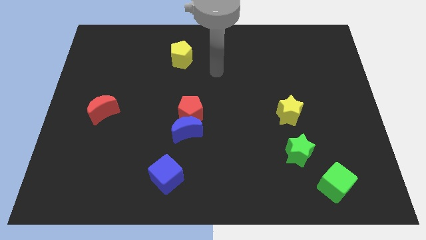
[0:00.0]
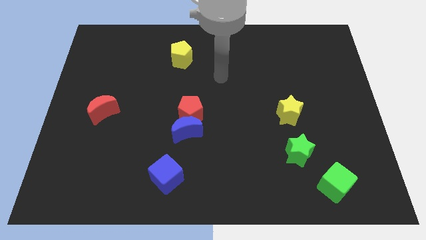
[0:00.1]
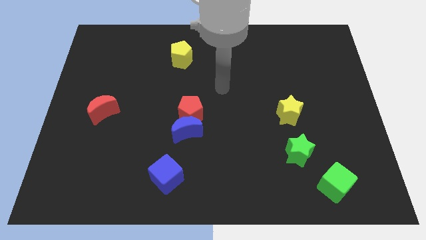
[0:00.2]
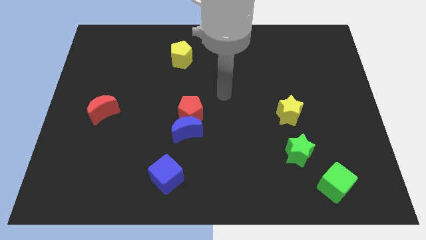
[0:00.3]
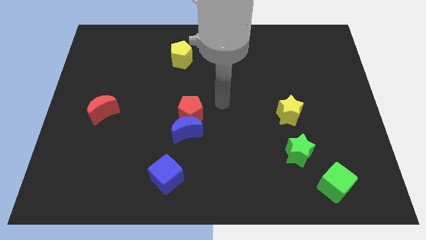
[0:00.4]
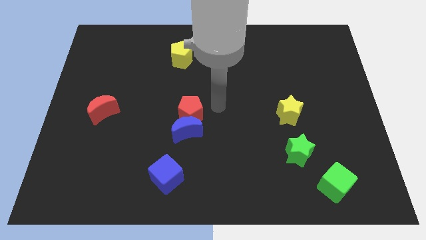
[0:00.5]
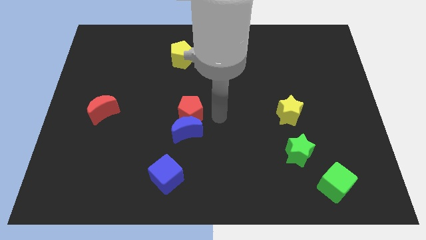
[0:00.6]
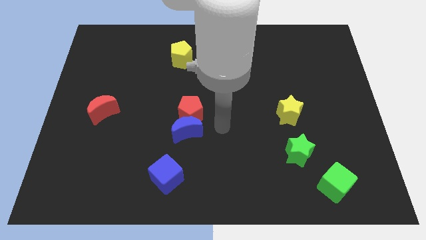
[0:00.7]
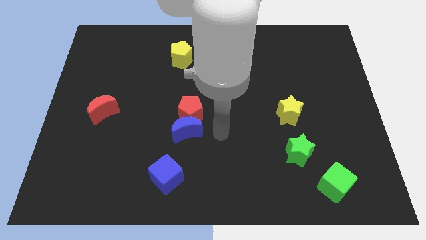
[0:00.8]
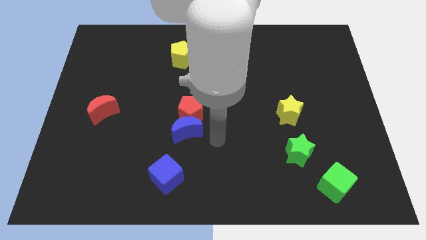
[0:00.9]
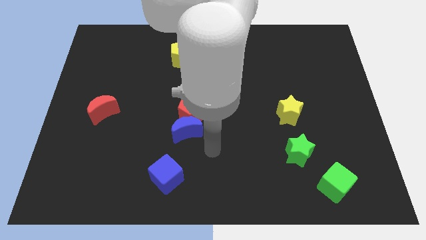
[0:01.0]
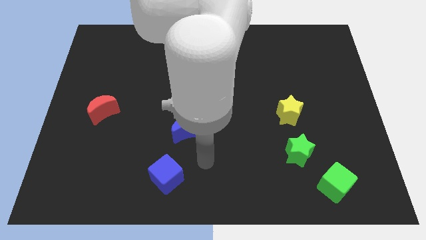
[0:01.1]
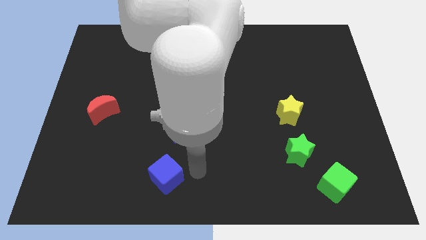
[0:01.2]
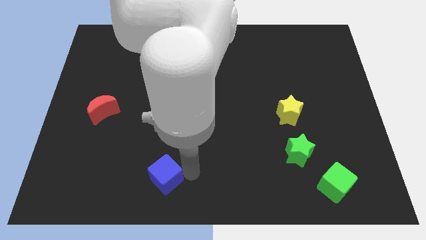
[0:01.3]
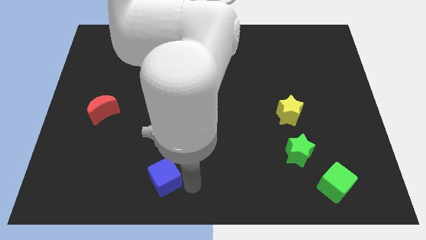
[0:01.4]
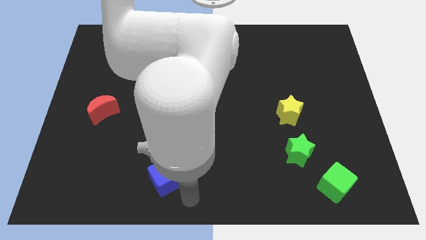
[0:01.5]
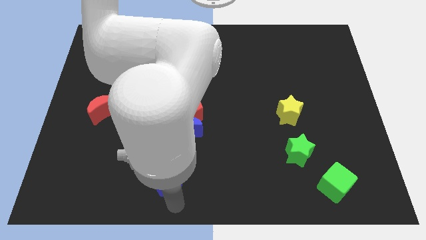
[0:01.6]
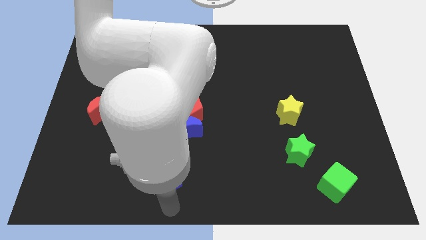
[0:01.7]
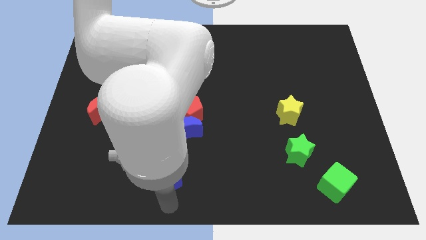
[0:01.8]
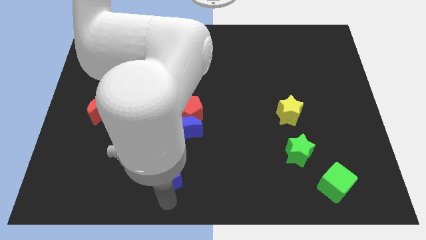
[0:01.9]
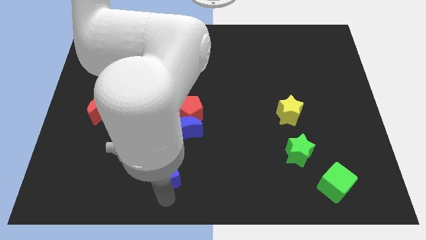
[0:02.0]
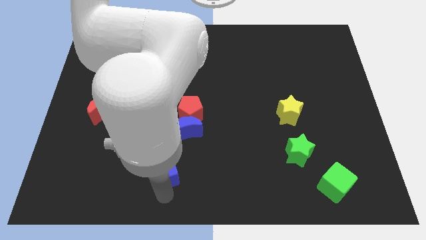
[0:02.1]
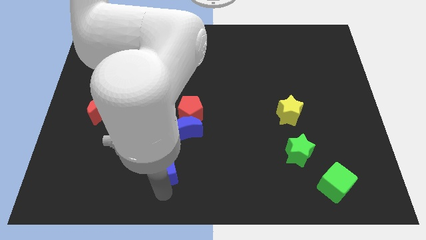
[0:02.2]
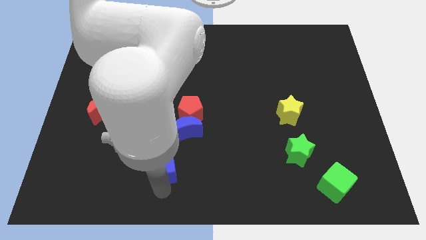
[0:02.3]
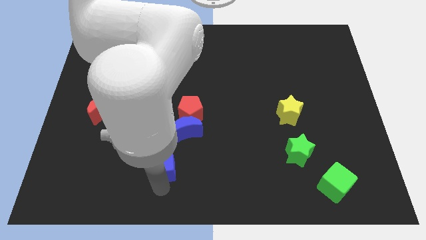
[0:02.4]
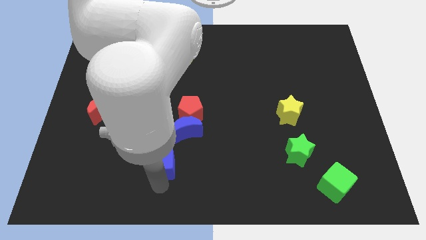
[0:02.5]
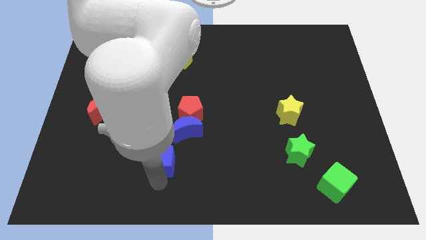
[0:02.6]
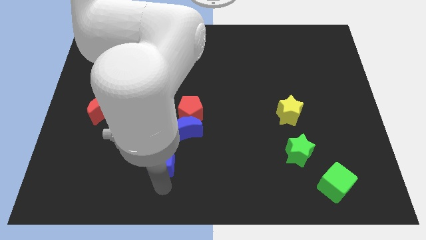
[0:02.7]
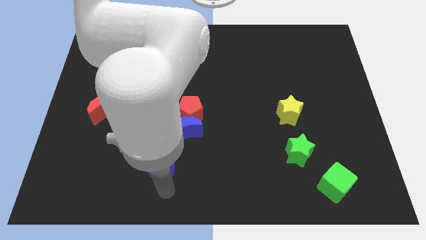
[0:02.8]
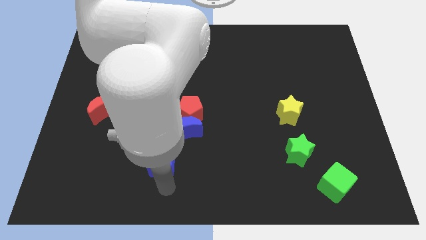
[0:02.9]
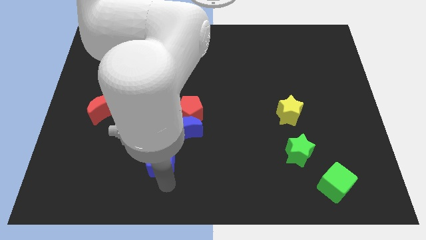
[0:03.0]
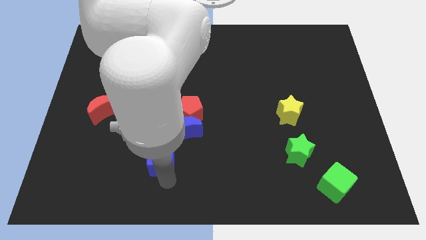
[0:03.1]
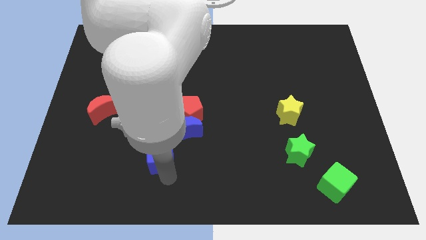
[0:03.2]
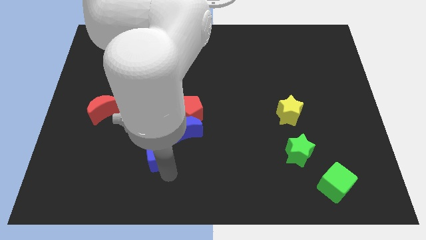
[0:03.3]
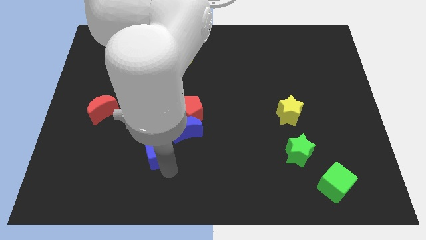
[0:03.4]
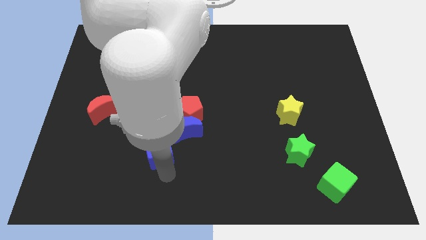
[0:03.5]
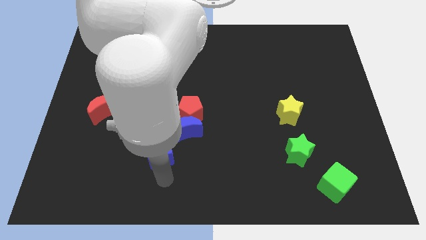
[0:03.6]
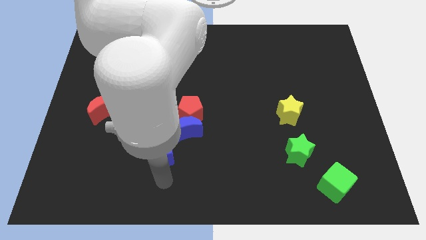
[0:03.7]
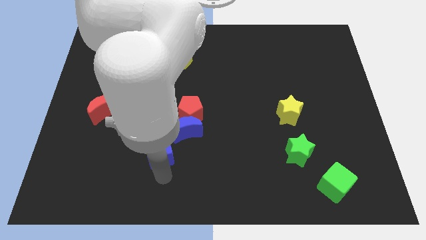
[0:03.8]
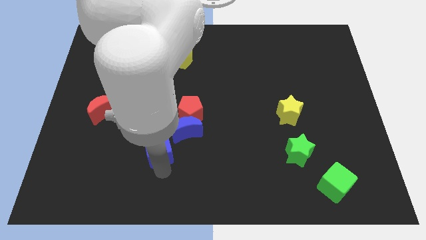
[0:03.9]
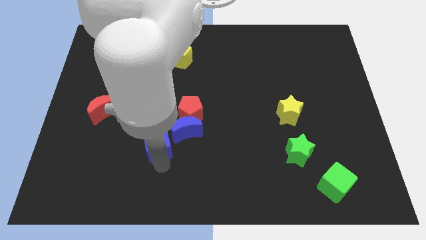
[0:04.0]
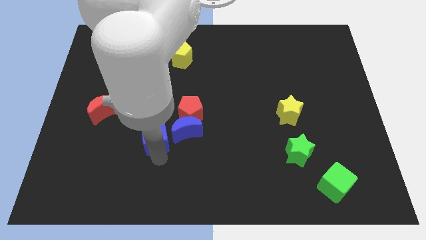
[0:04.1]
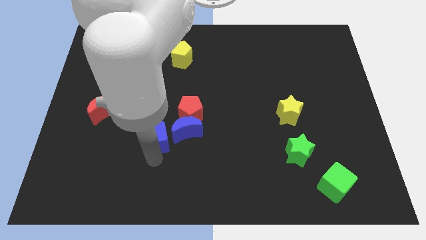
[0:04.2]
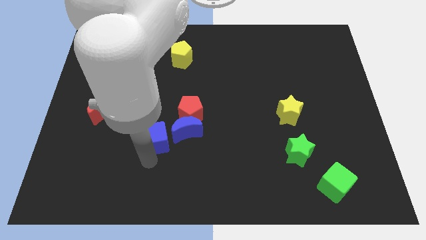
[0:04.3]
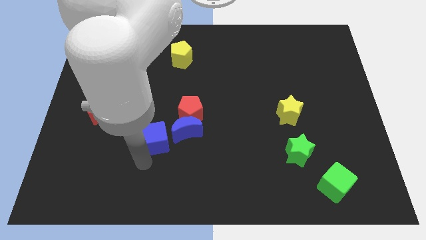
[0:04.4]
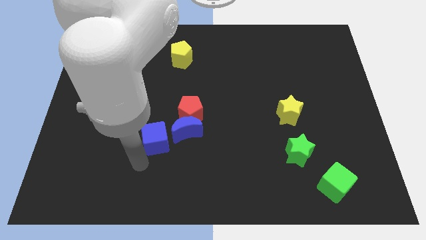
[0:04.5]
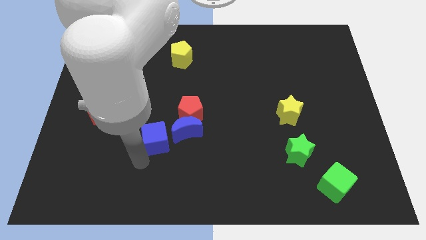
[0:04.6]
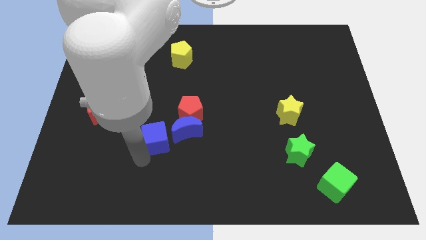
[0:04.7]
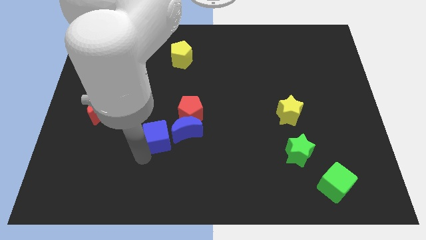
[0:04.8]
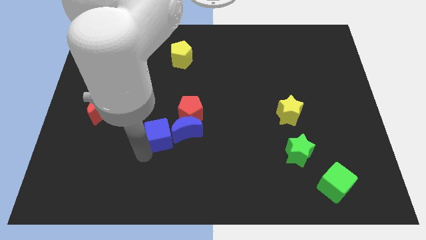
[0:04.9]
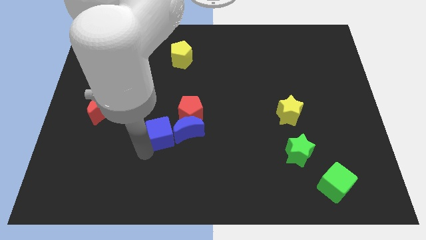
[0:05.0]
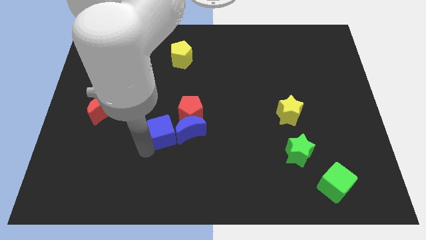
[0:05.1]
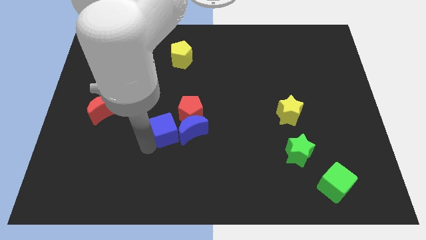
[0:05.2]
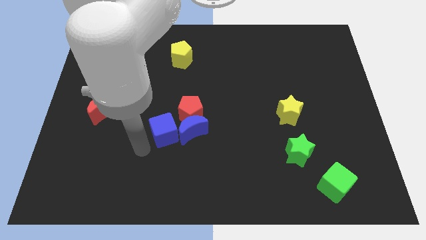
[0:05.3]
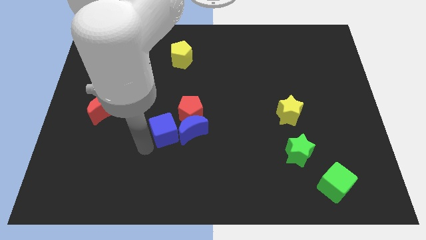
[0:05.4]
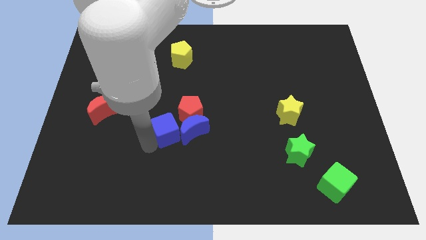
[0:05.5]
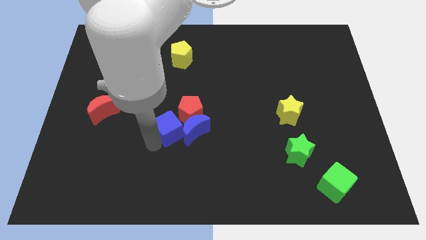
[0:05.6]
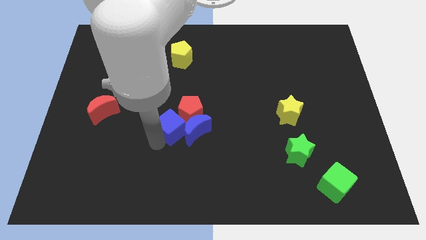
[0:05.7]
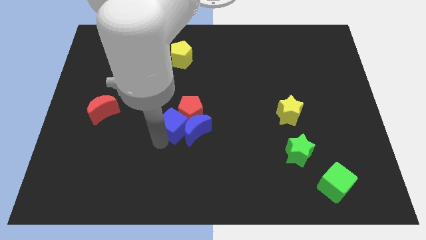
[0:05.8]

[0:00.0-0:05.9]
push the blue cube towards the red pentagon

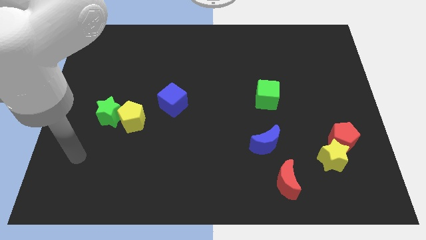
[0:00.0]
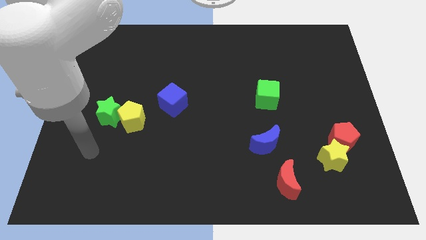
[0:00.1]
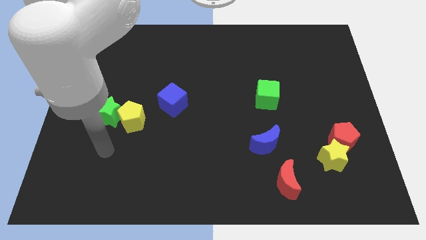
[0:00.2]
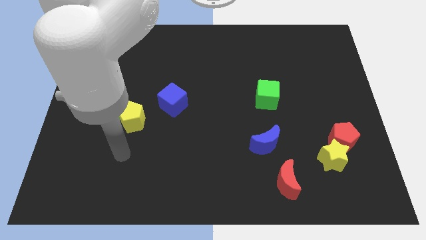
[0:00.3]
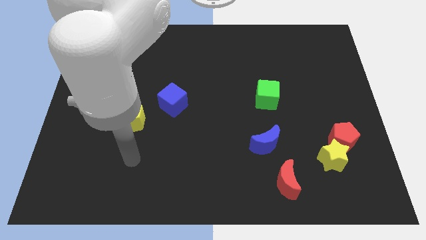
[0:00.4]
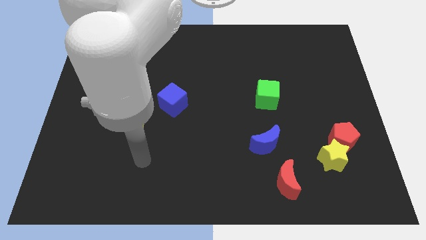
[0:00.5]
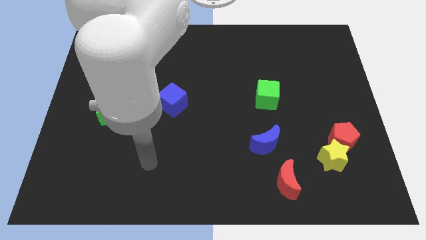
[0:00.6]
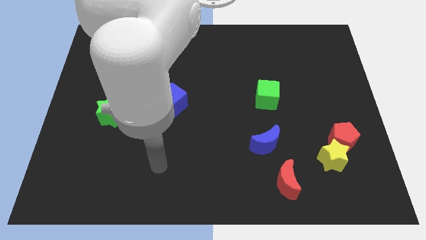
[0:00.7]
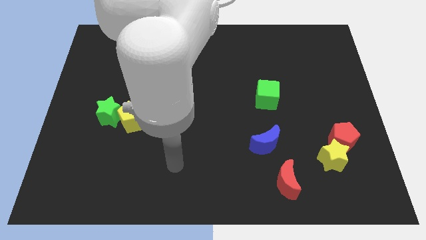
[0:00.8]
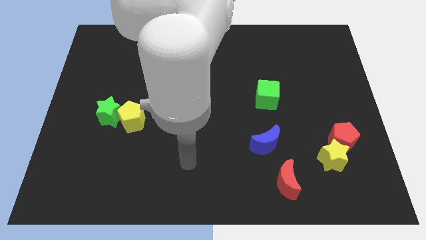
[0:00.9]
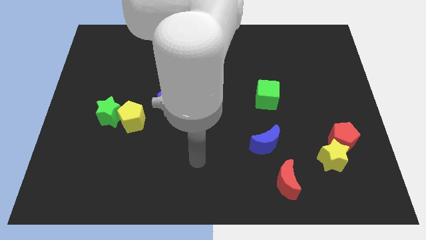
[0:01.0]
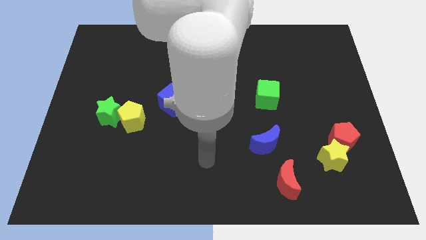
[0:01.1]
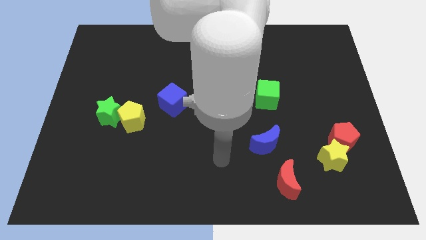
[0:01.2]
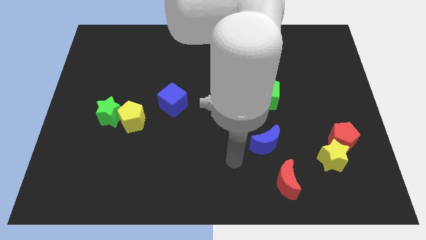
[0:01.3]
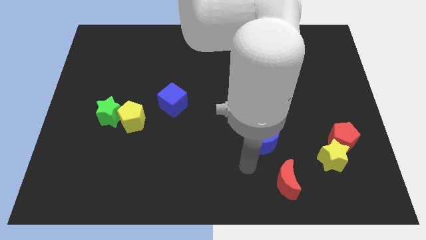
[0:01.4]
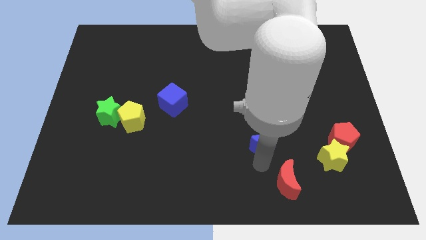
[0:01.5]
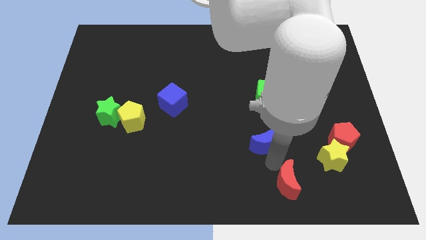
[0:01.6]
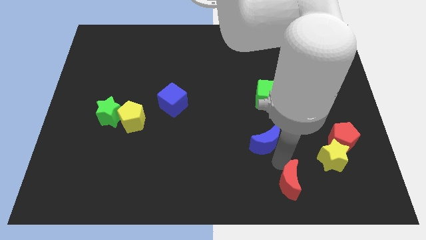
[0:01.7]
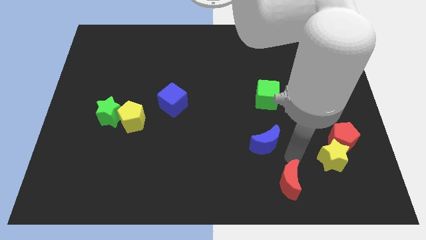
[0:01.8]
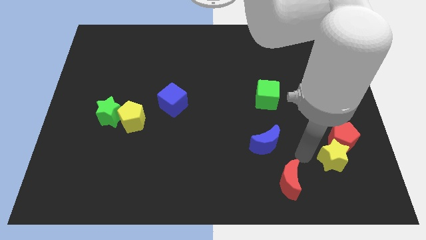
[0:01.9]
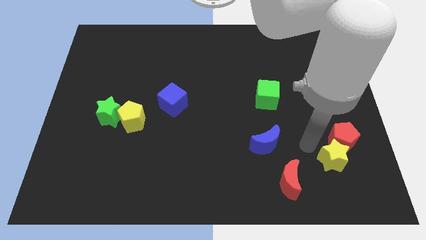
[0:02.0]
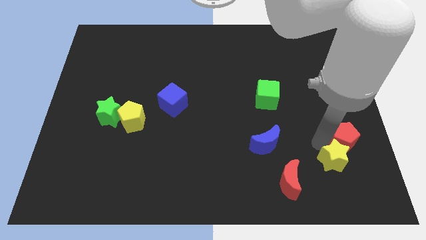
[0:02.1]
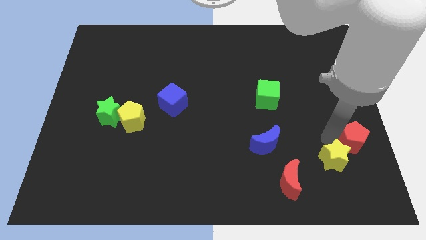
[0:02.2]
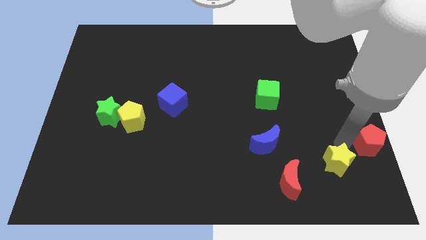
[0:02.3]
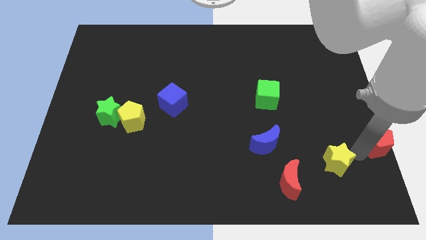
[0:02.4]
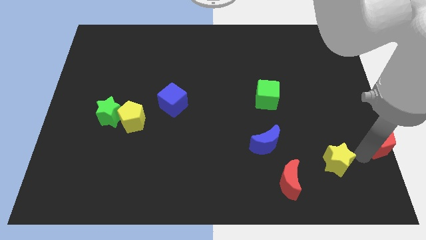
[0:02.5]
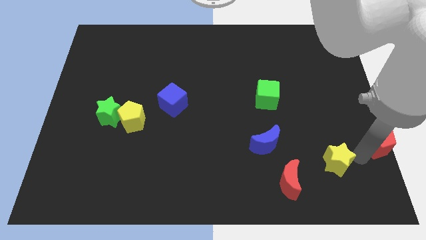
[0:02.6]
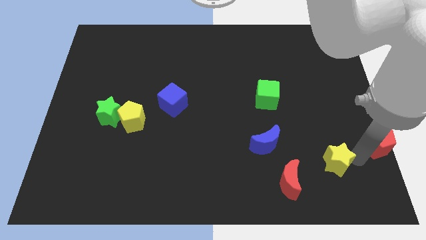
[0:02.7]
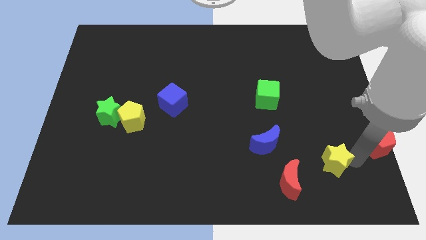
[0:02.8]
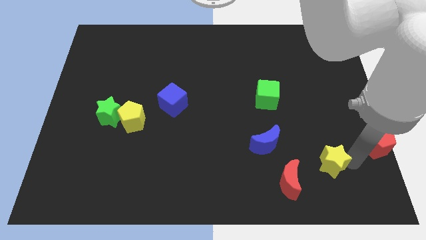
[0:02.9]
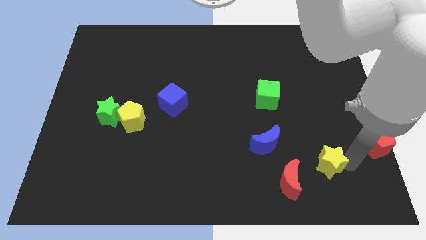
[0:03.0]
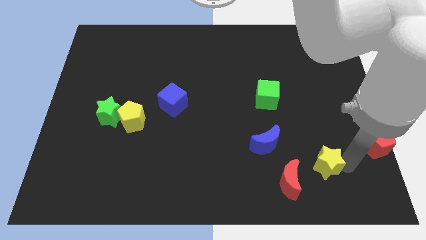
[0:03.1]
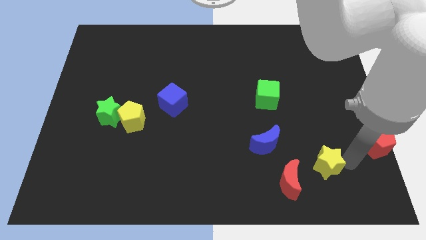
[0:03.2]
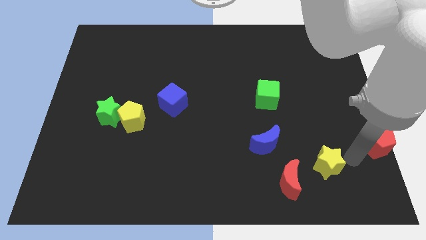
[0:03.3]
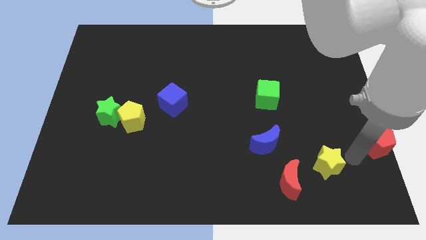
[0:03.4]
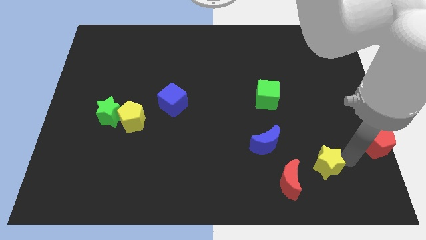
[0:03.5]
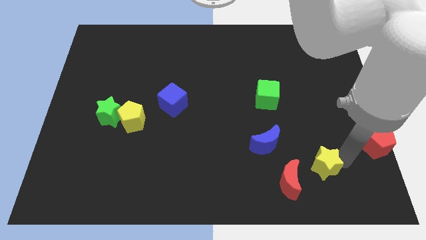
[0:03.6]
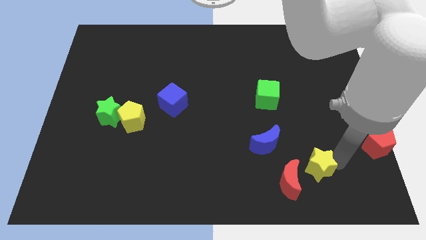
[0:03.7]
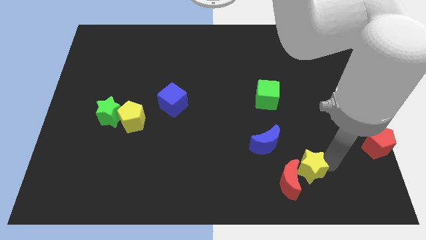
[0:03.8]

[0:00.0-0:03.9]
slide the yellow star next to the red moon
